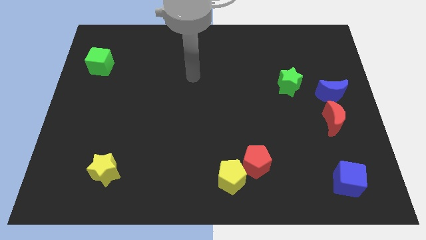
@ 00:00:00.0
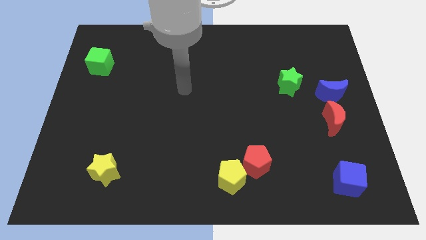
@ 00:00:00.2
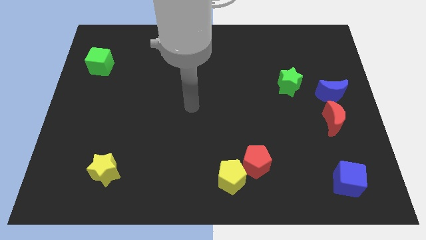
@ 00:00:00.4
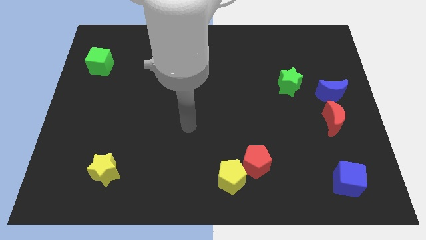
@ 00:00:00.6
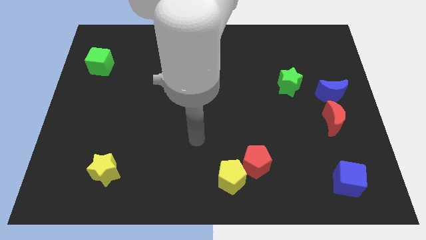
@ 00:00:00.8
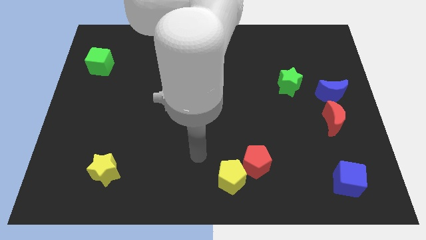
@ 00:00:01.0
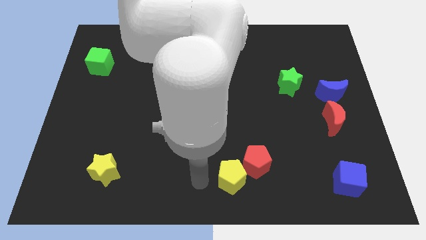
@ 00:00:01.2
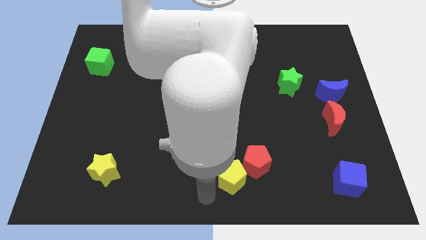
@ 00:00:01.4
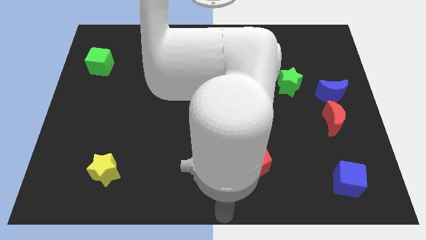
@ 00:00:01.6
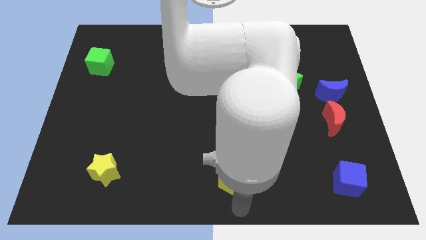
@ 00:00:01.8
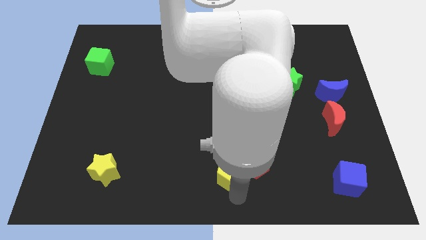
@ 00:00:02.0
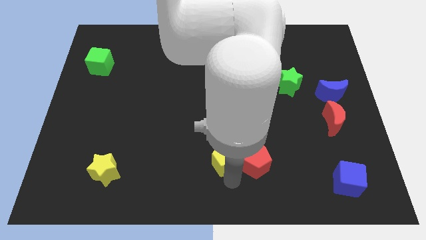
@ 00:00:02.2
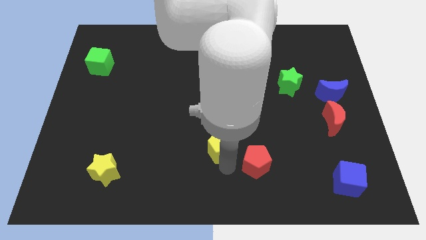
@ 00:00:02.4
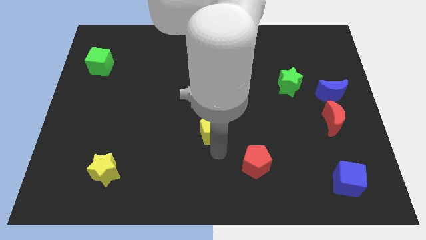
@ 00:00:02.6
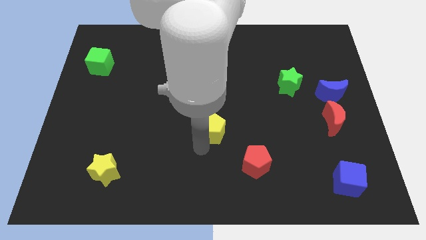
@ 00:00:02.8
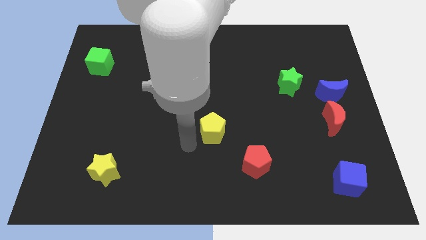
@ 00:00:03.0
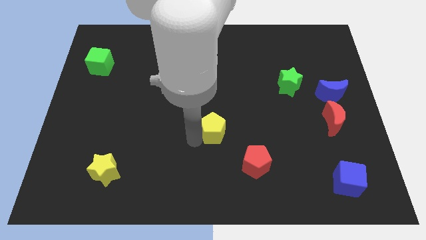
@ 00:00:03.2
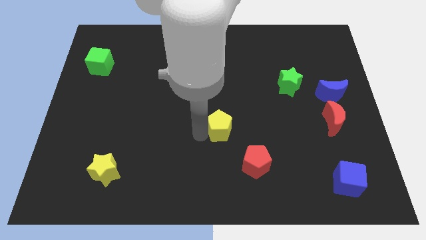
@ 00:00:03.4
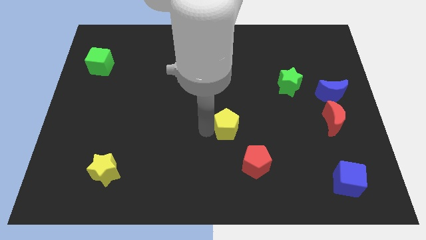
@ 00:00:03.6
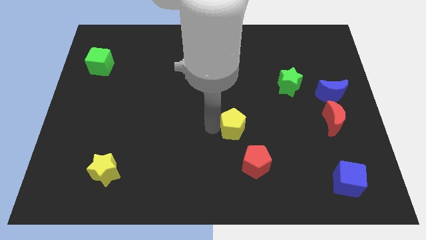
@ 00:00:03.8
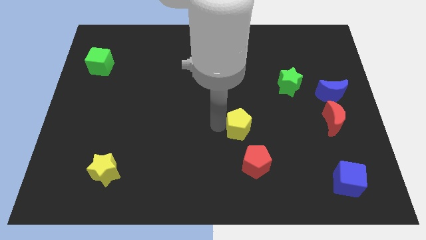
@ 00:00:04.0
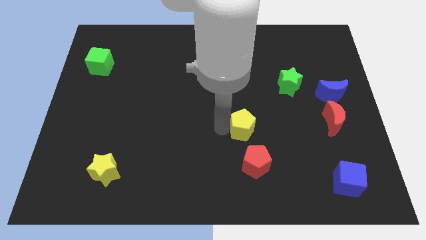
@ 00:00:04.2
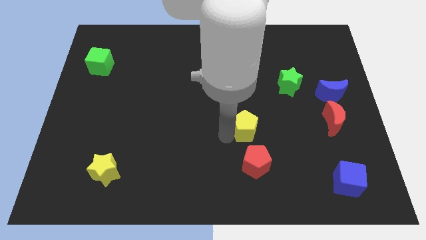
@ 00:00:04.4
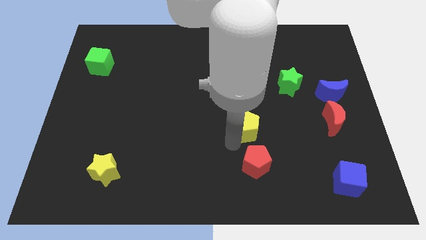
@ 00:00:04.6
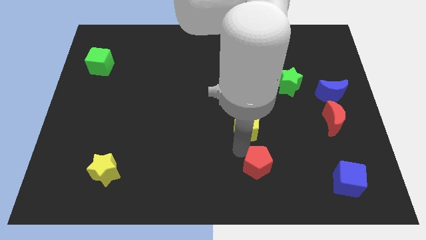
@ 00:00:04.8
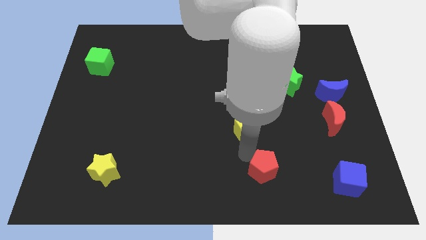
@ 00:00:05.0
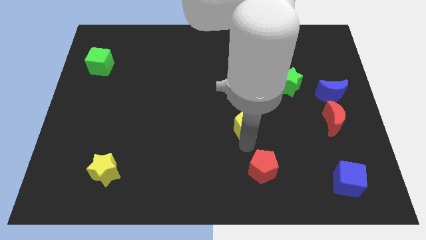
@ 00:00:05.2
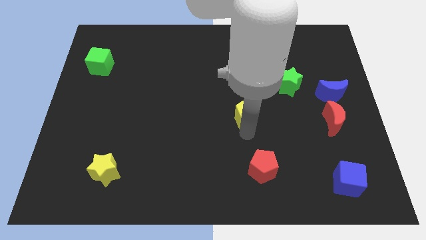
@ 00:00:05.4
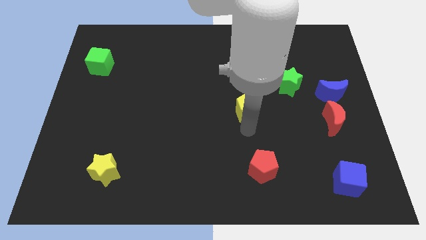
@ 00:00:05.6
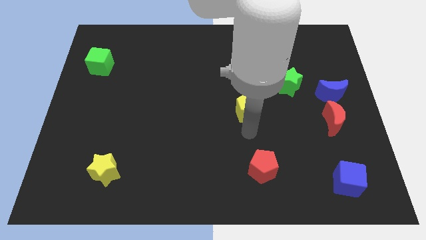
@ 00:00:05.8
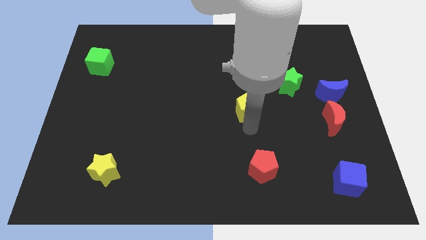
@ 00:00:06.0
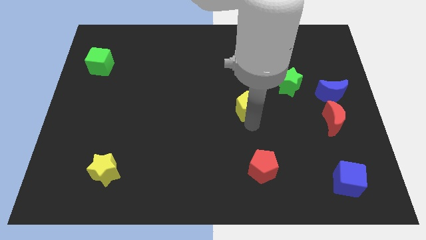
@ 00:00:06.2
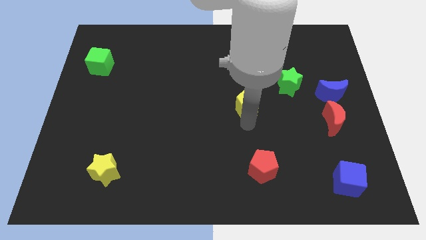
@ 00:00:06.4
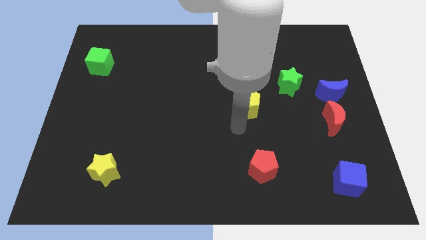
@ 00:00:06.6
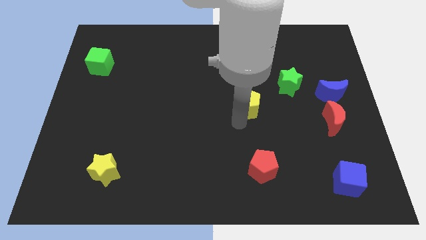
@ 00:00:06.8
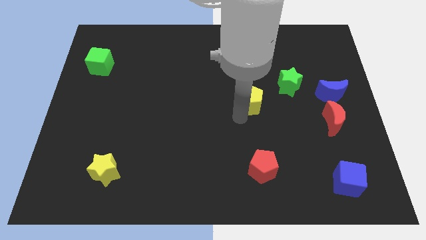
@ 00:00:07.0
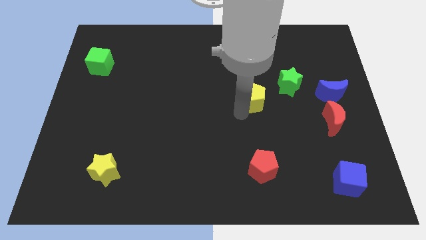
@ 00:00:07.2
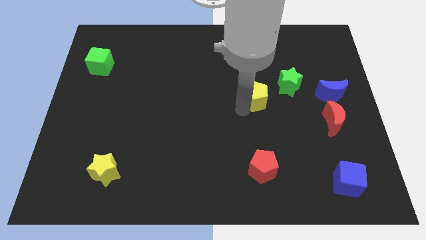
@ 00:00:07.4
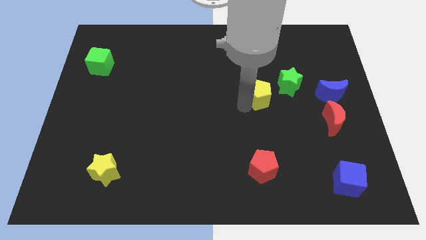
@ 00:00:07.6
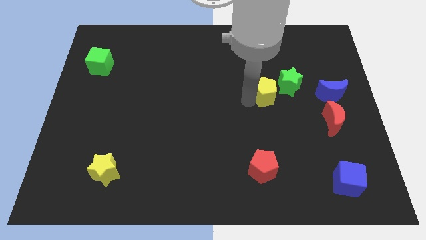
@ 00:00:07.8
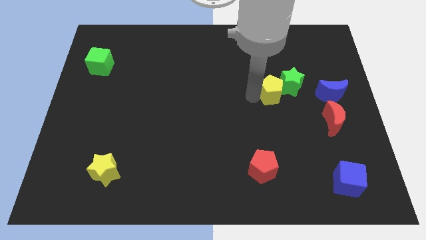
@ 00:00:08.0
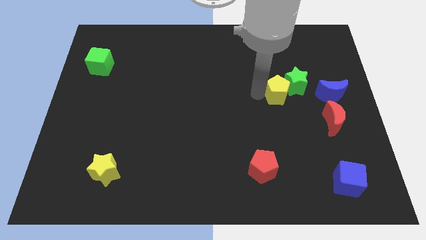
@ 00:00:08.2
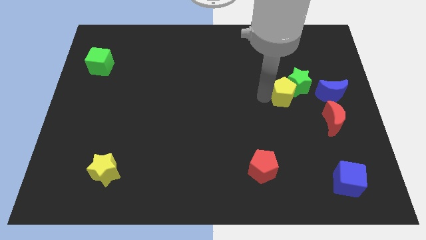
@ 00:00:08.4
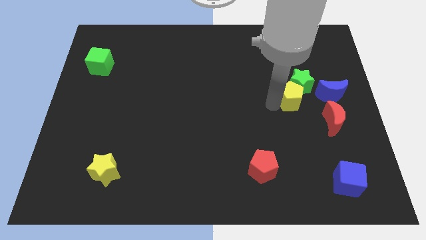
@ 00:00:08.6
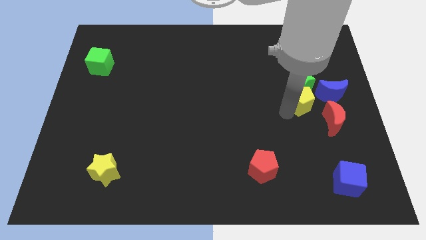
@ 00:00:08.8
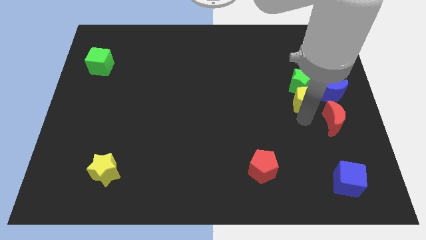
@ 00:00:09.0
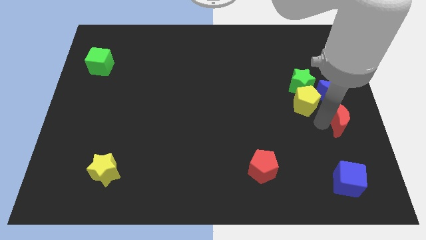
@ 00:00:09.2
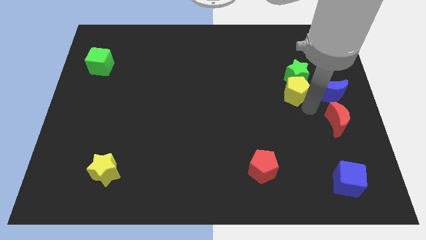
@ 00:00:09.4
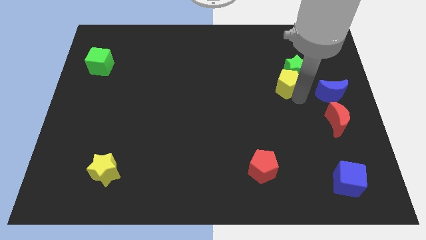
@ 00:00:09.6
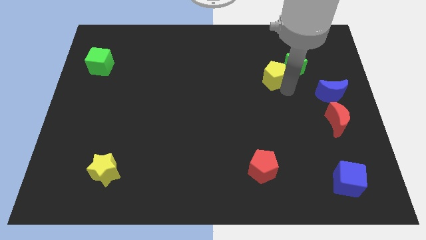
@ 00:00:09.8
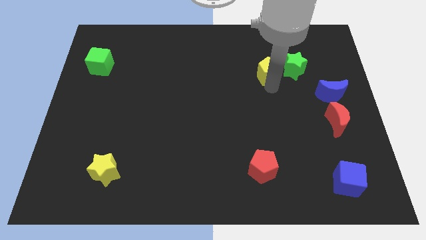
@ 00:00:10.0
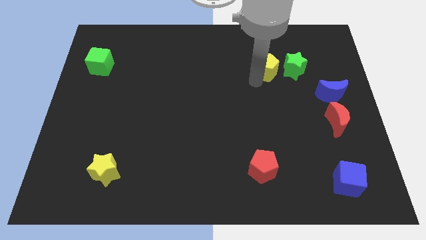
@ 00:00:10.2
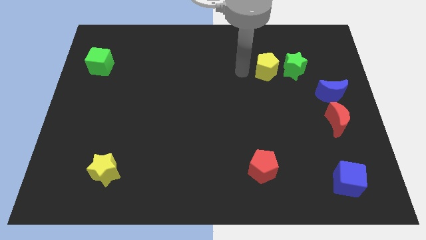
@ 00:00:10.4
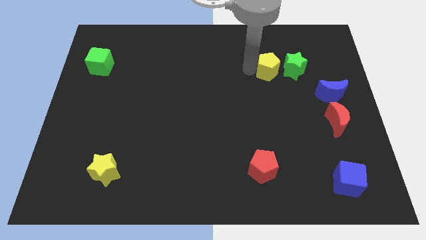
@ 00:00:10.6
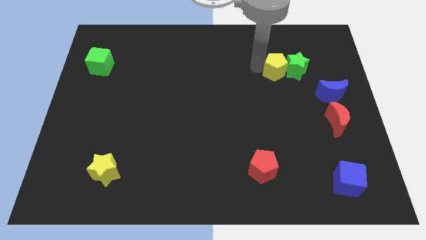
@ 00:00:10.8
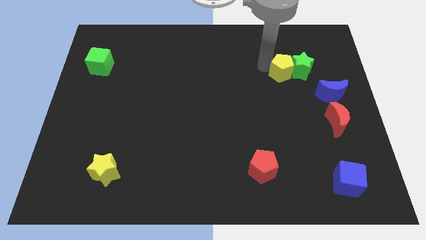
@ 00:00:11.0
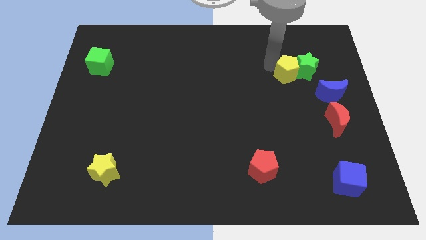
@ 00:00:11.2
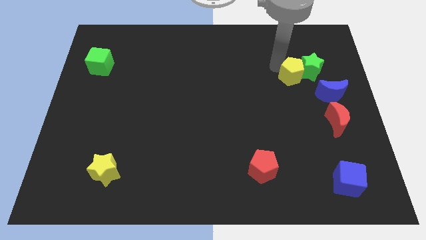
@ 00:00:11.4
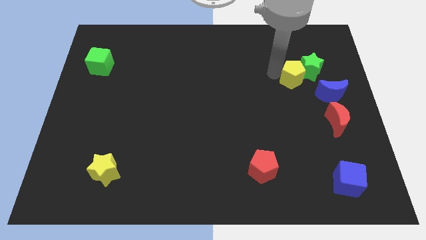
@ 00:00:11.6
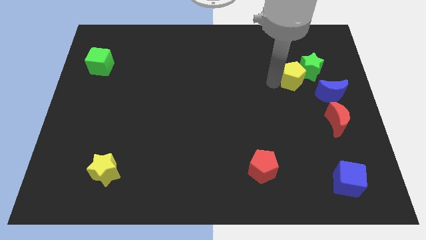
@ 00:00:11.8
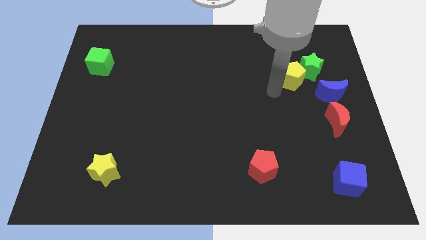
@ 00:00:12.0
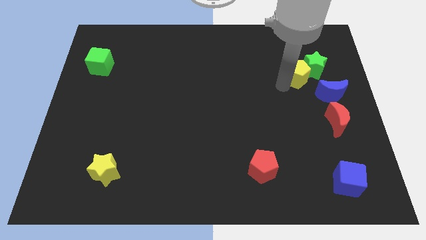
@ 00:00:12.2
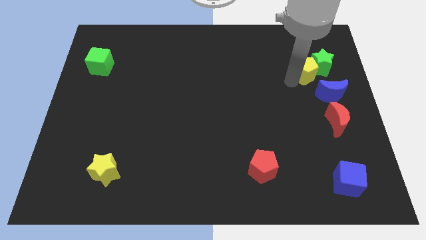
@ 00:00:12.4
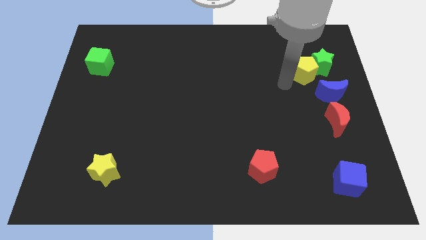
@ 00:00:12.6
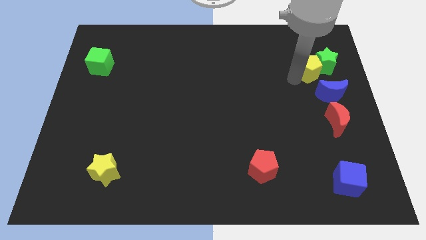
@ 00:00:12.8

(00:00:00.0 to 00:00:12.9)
put the yellow pentagon above the blue moon
